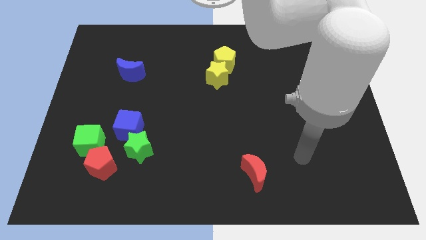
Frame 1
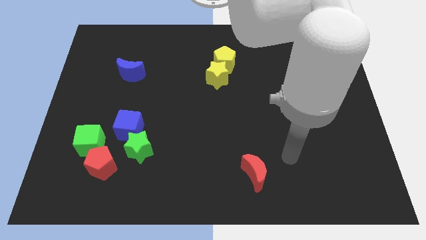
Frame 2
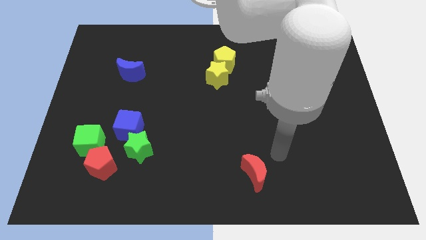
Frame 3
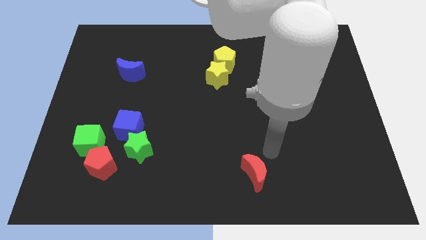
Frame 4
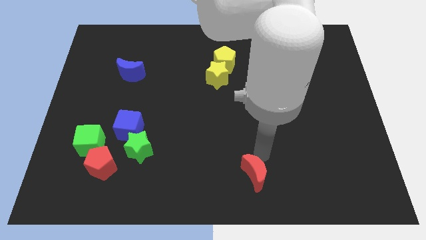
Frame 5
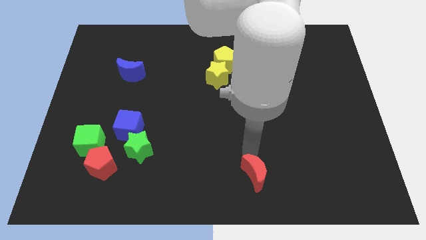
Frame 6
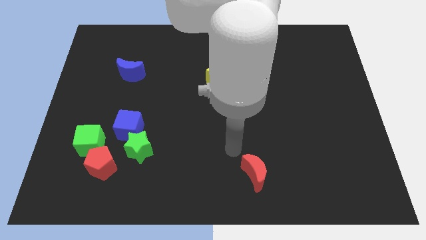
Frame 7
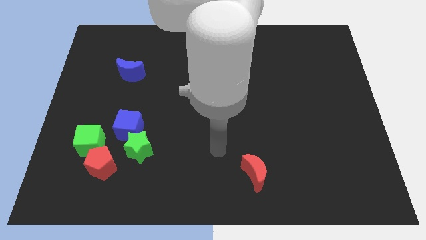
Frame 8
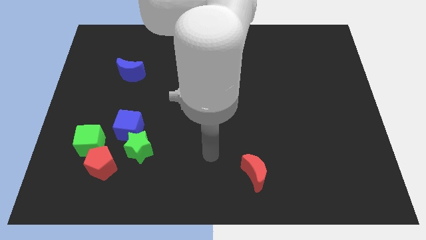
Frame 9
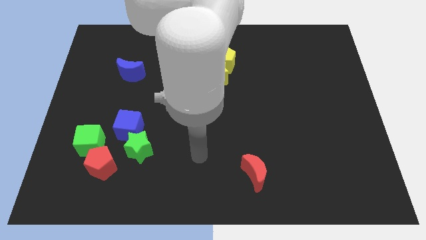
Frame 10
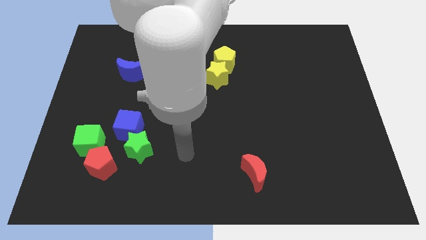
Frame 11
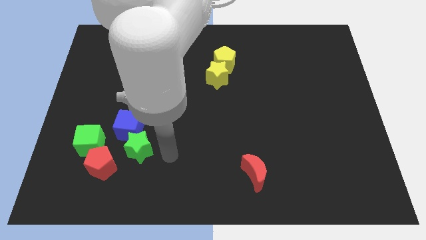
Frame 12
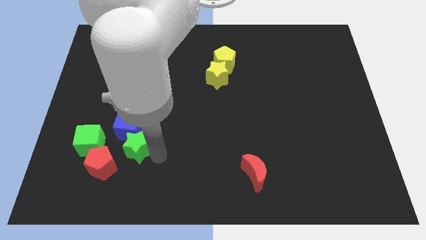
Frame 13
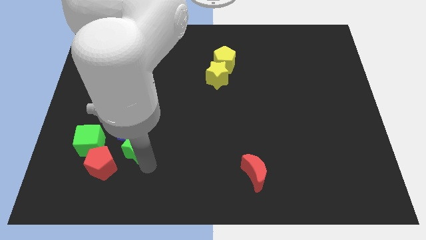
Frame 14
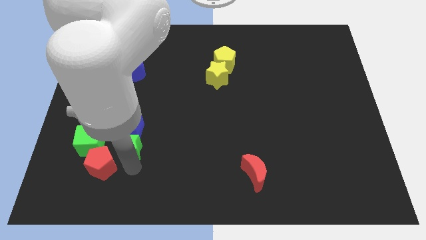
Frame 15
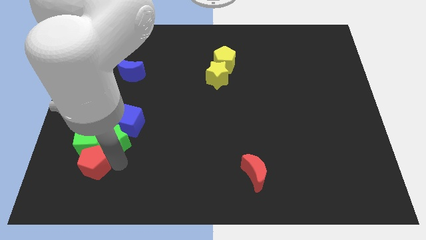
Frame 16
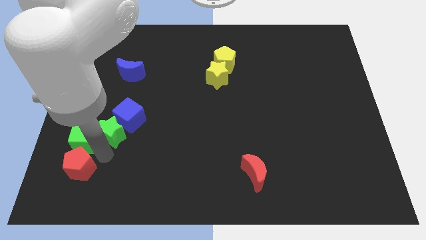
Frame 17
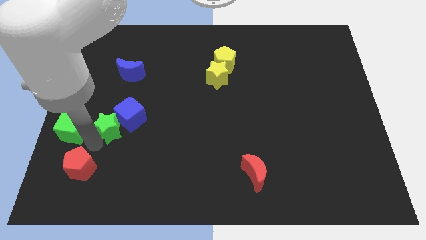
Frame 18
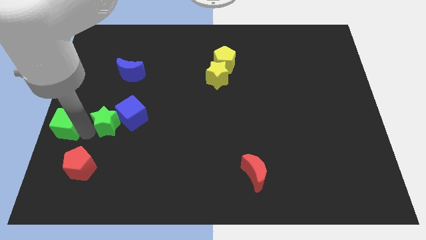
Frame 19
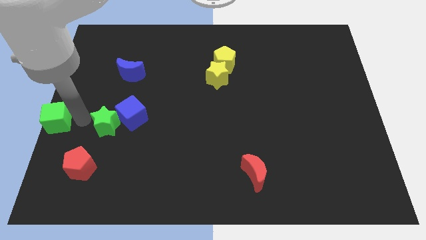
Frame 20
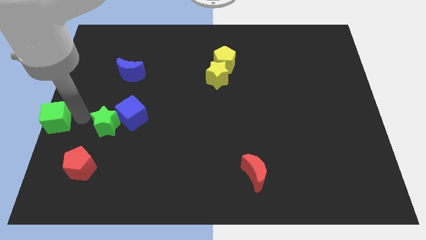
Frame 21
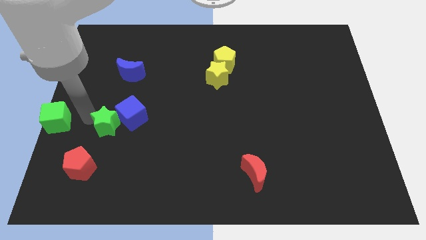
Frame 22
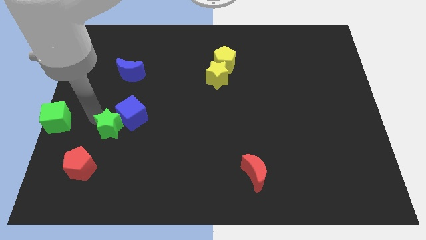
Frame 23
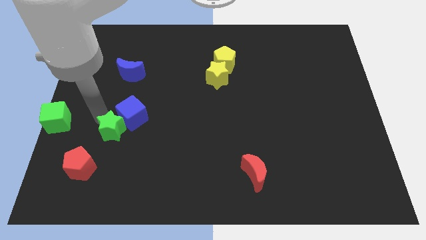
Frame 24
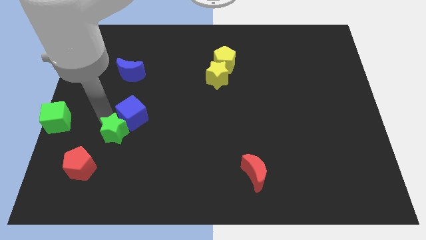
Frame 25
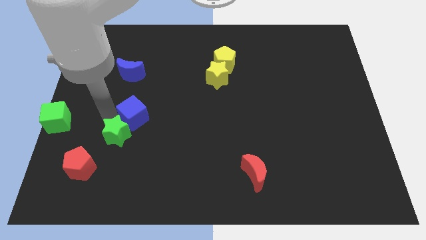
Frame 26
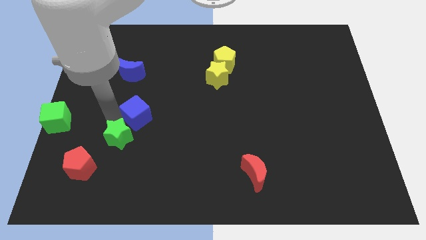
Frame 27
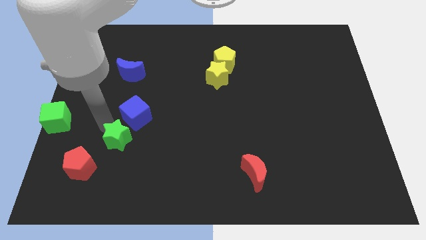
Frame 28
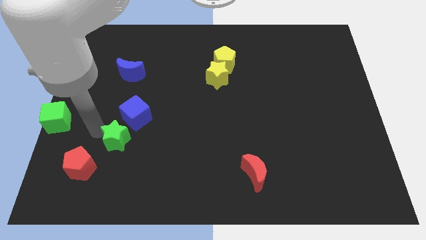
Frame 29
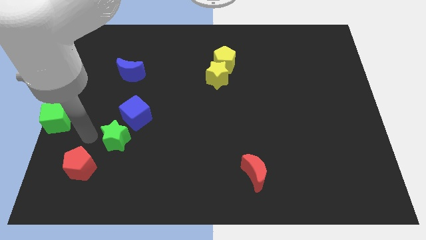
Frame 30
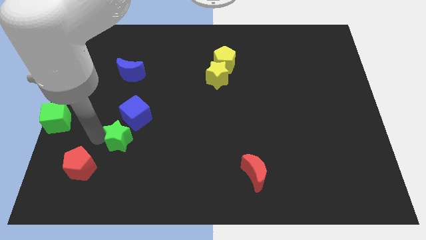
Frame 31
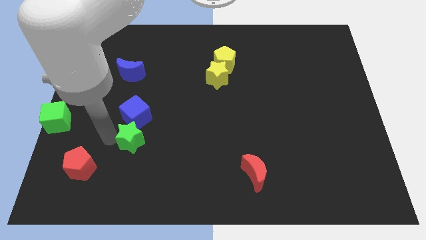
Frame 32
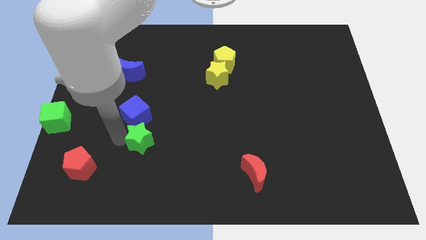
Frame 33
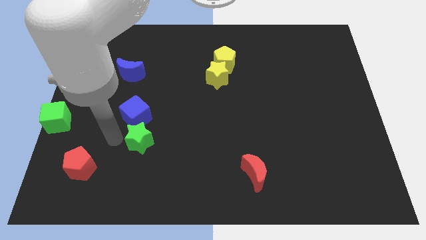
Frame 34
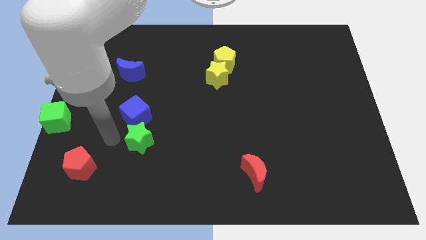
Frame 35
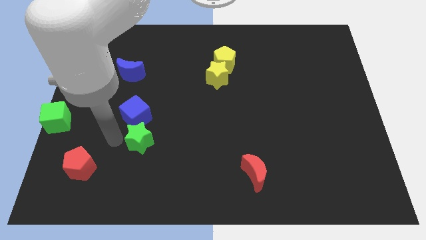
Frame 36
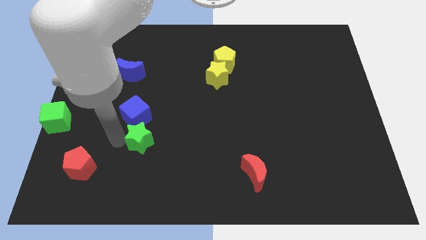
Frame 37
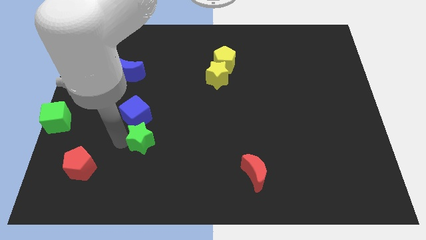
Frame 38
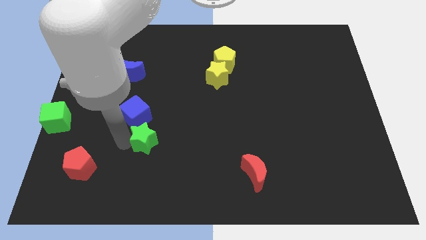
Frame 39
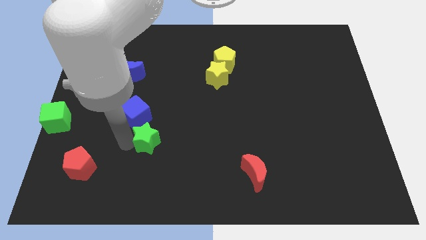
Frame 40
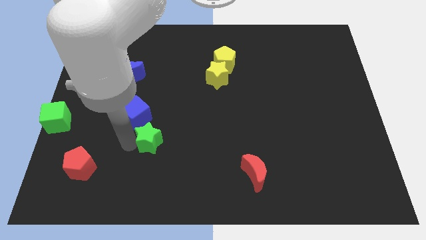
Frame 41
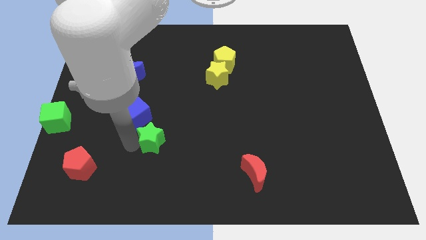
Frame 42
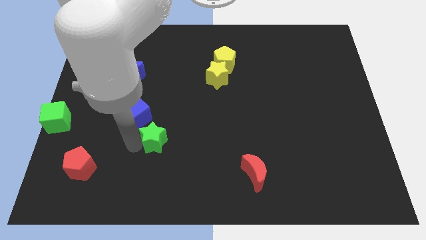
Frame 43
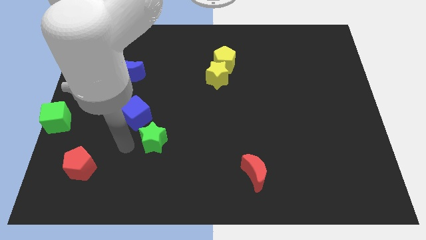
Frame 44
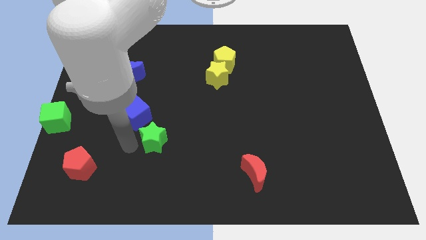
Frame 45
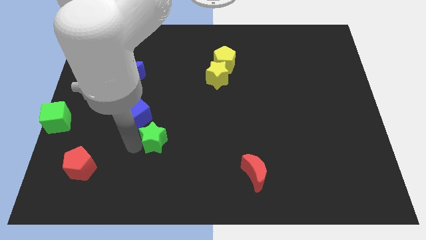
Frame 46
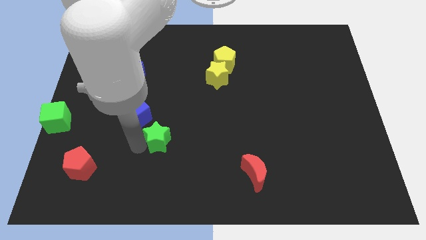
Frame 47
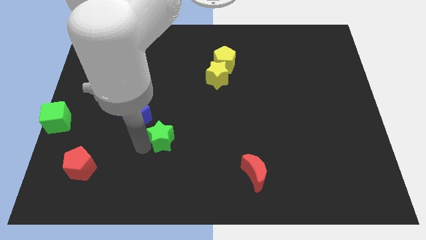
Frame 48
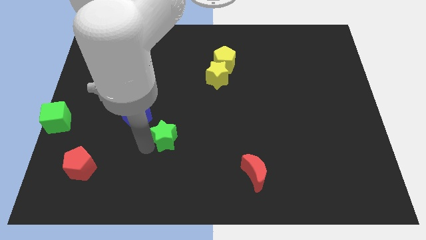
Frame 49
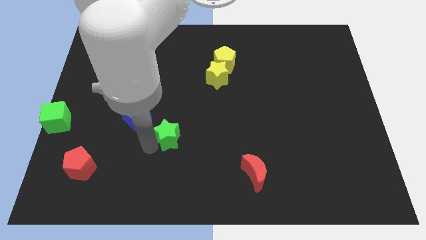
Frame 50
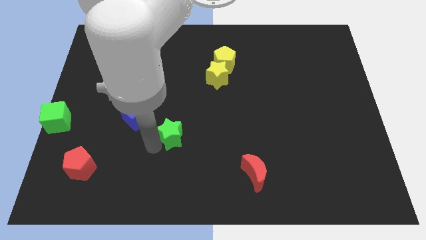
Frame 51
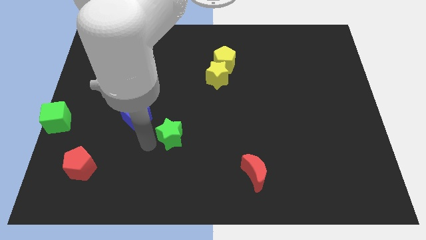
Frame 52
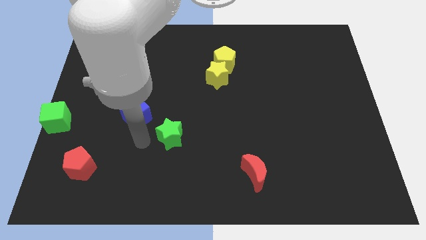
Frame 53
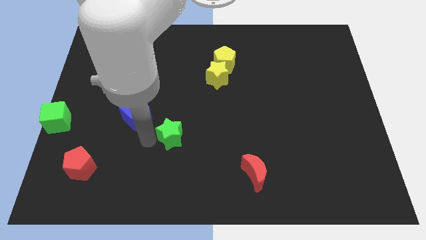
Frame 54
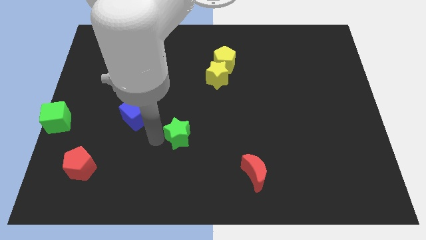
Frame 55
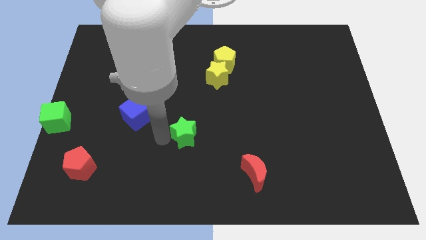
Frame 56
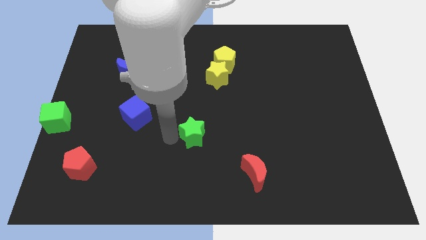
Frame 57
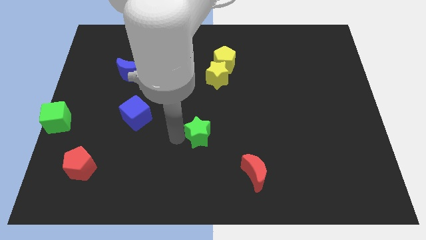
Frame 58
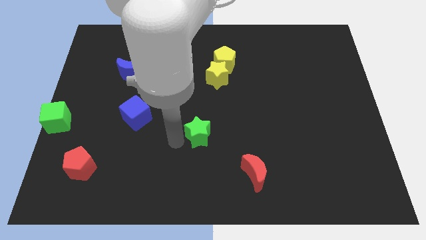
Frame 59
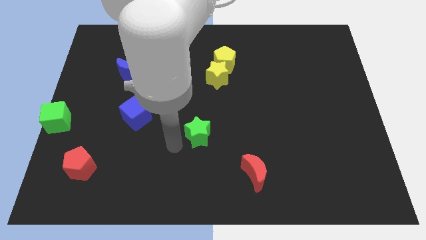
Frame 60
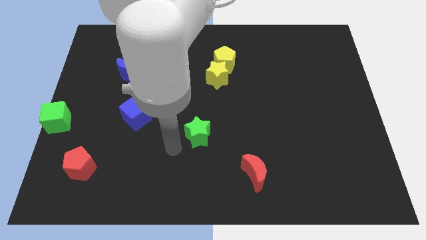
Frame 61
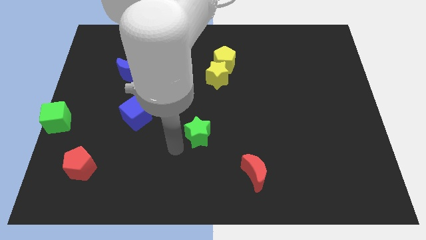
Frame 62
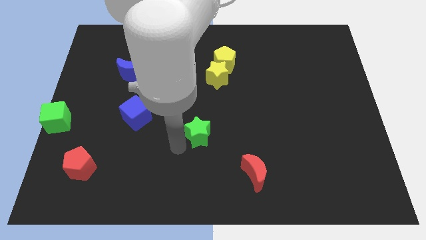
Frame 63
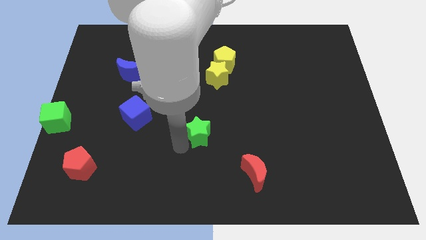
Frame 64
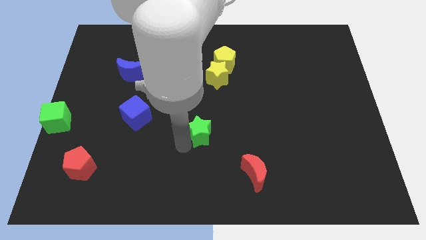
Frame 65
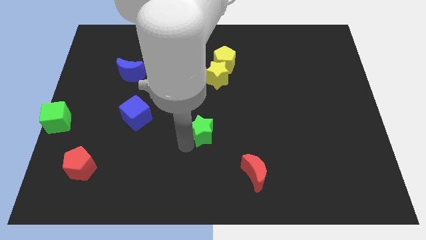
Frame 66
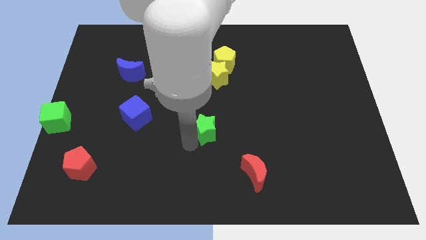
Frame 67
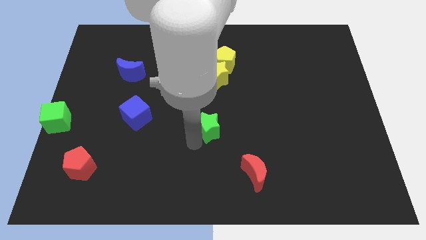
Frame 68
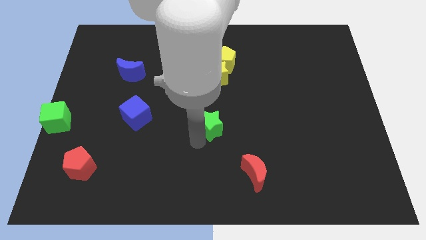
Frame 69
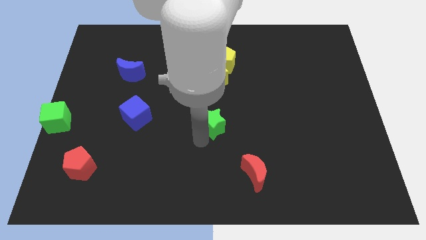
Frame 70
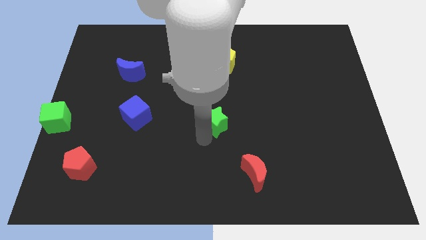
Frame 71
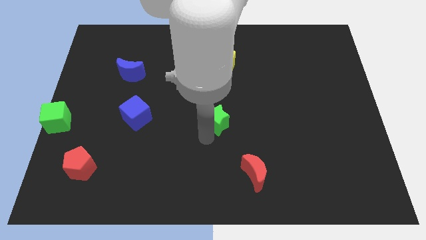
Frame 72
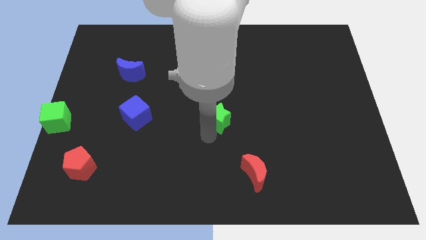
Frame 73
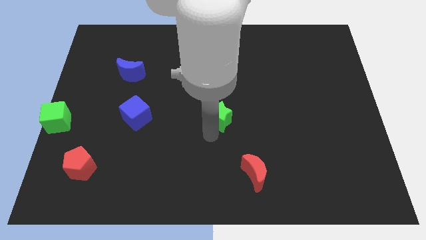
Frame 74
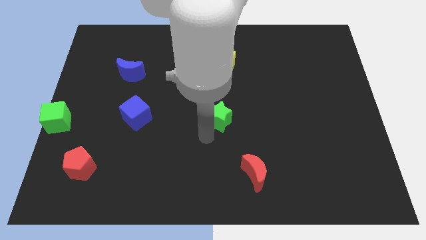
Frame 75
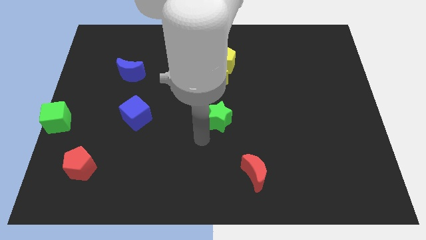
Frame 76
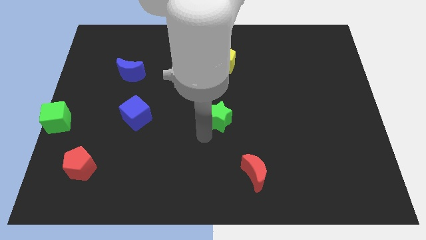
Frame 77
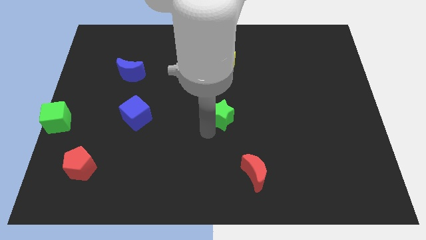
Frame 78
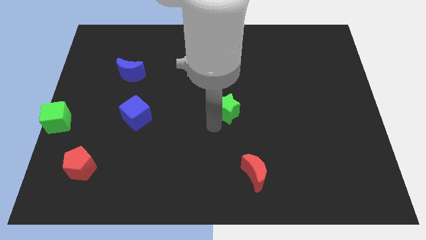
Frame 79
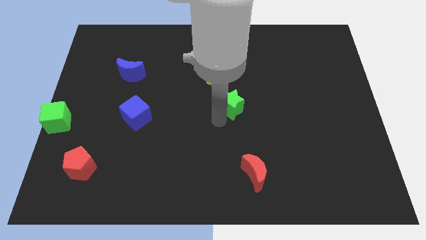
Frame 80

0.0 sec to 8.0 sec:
push the green star upwards and right

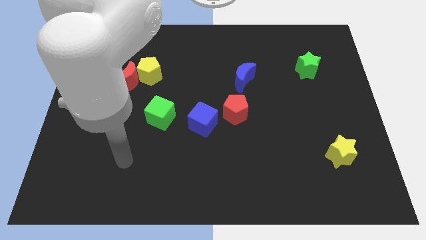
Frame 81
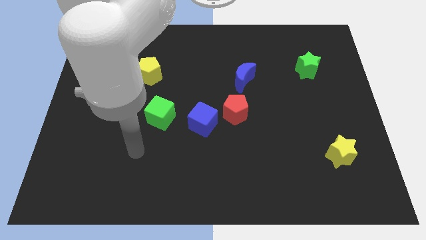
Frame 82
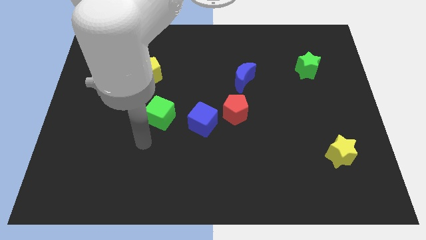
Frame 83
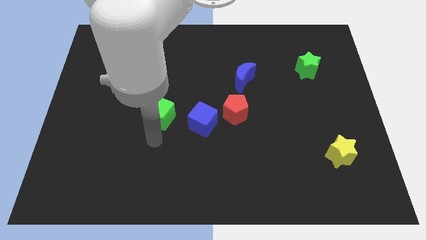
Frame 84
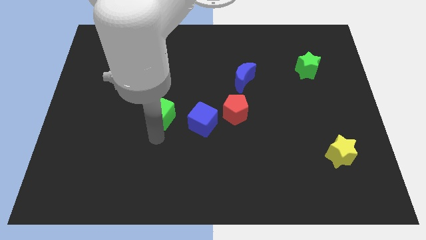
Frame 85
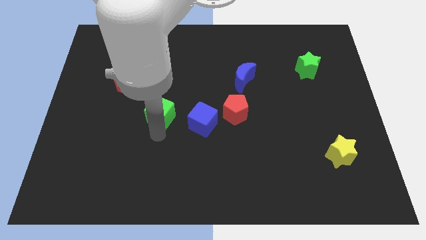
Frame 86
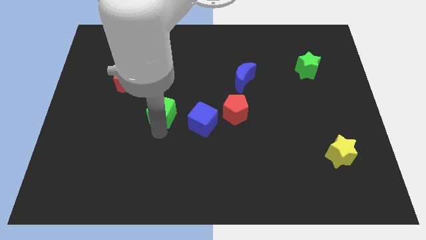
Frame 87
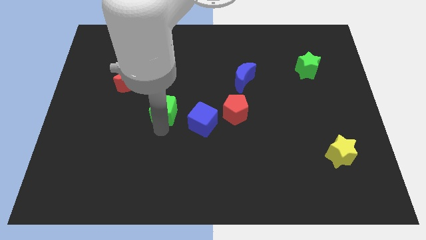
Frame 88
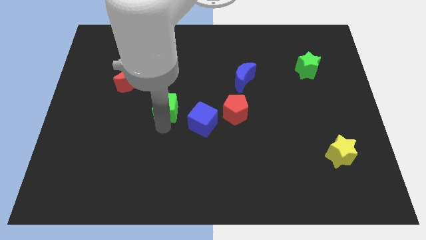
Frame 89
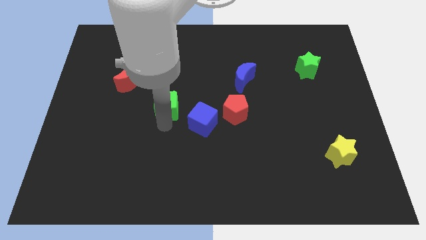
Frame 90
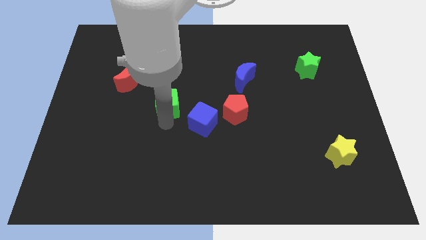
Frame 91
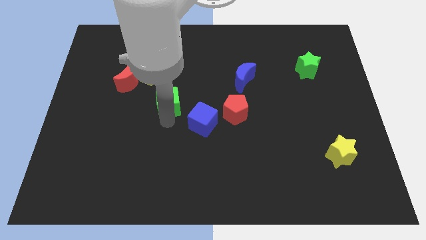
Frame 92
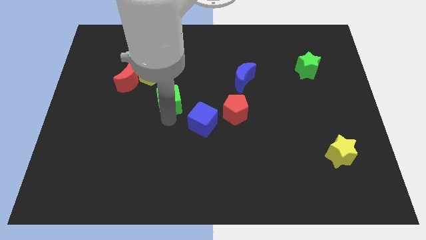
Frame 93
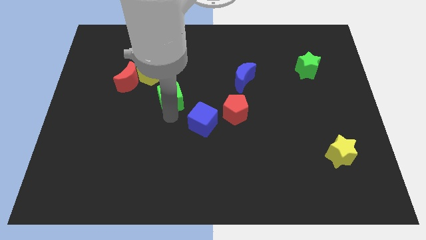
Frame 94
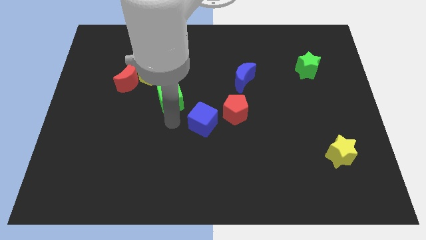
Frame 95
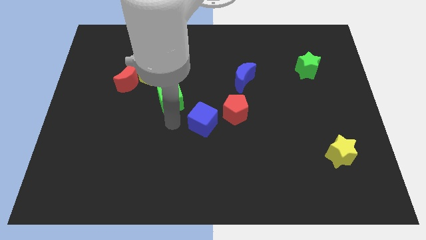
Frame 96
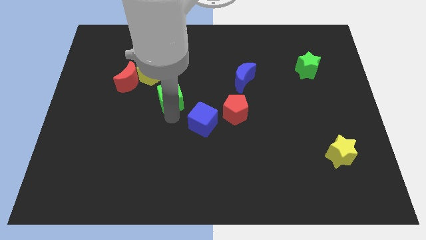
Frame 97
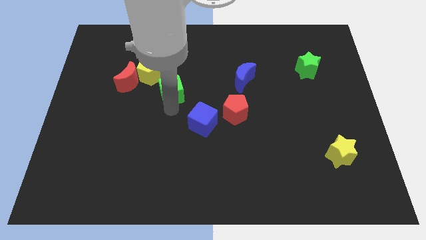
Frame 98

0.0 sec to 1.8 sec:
slide the green cube upwards a little
